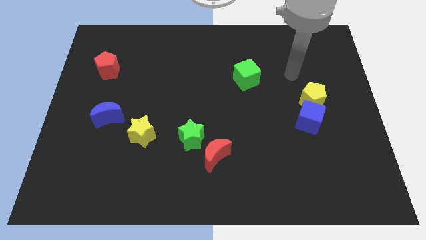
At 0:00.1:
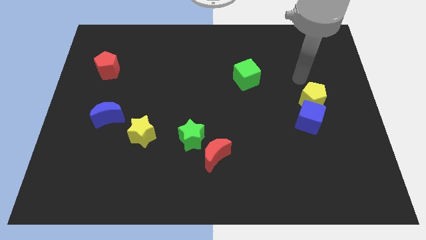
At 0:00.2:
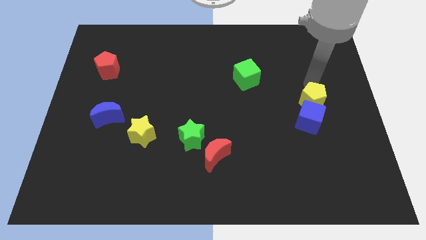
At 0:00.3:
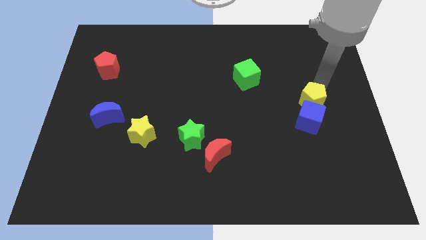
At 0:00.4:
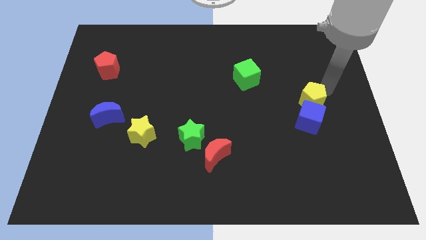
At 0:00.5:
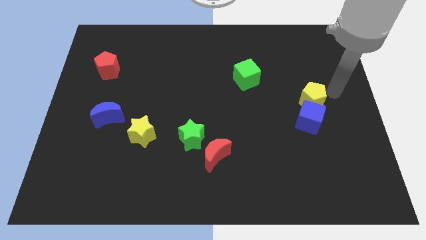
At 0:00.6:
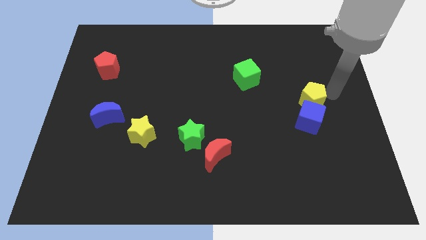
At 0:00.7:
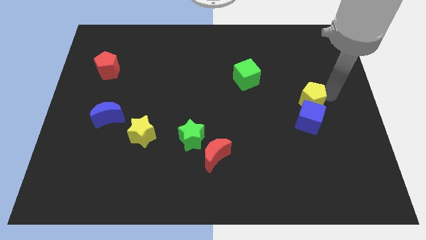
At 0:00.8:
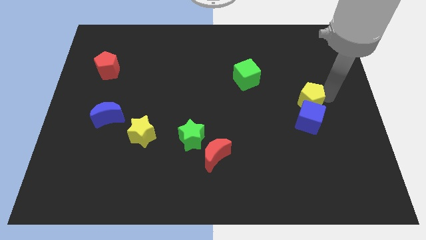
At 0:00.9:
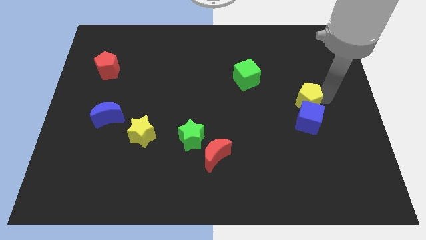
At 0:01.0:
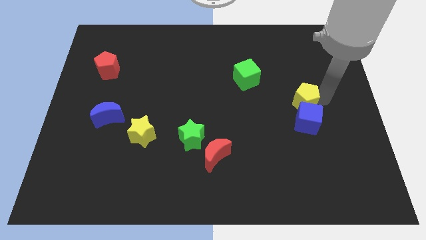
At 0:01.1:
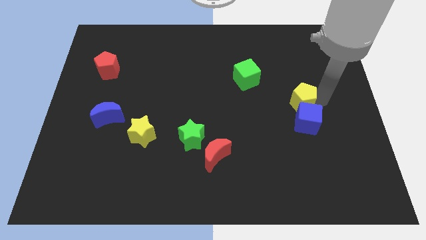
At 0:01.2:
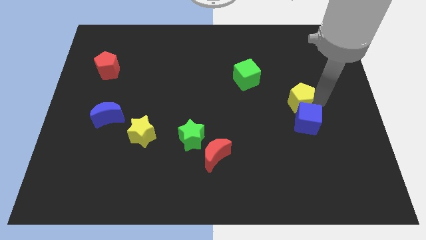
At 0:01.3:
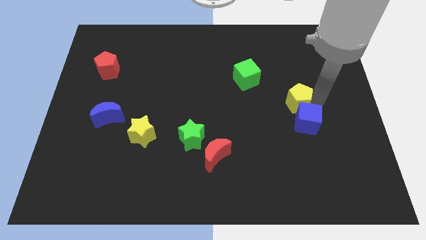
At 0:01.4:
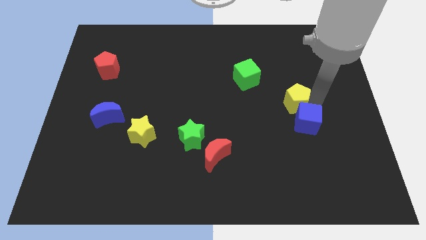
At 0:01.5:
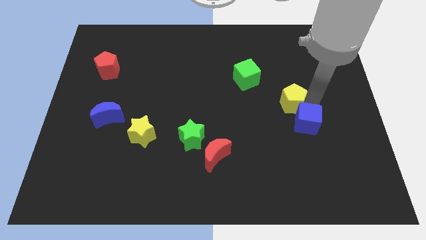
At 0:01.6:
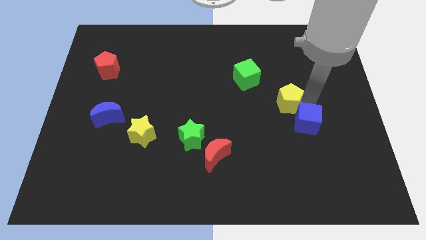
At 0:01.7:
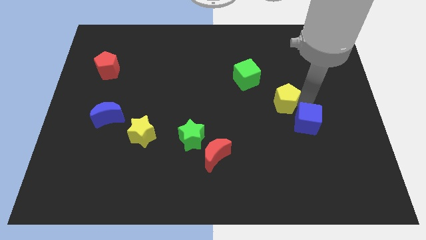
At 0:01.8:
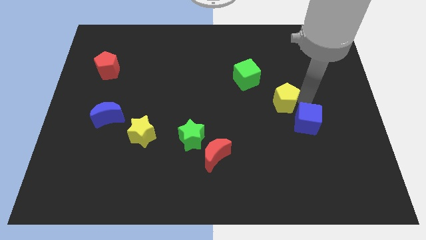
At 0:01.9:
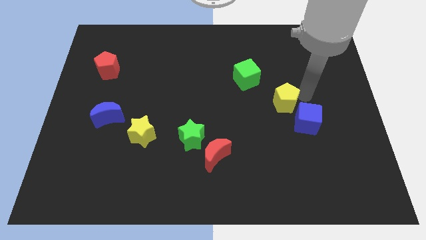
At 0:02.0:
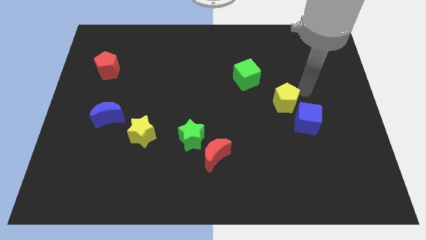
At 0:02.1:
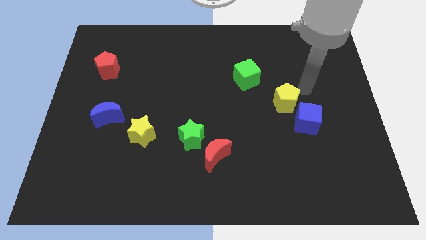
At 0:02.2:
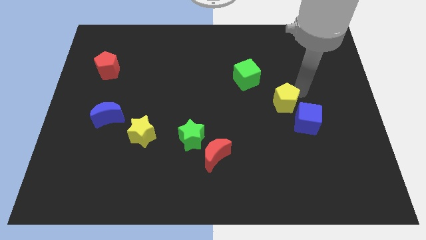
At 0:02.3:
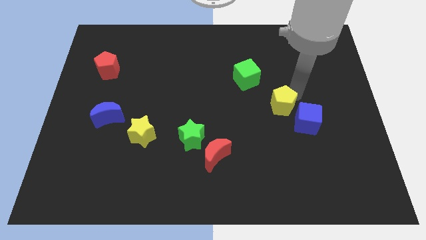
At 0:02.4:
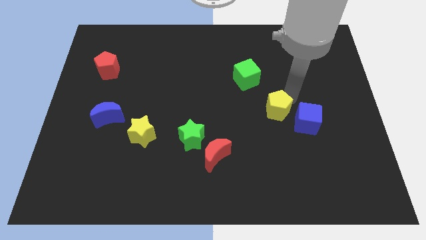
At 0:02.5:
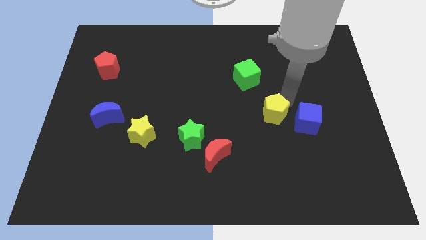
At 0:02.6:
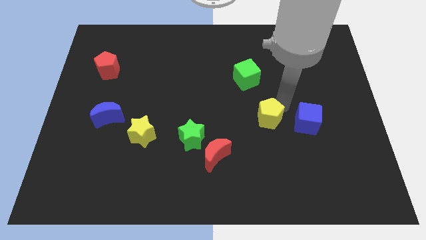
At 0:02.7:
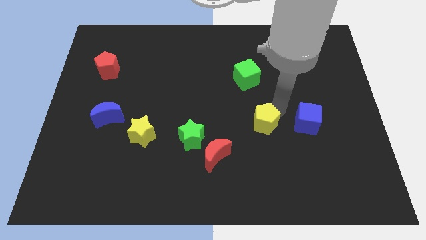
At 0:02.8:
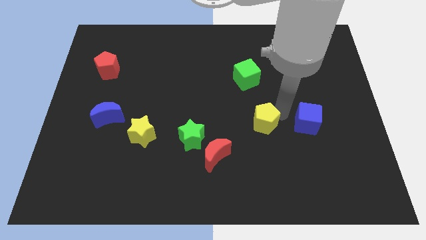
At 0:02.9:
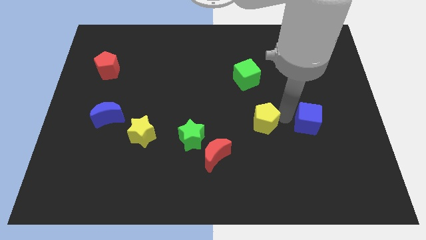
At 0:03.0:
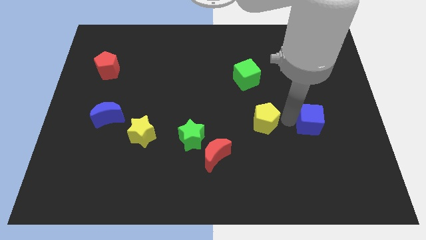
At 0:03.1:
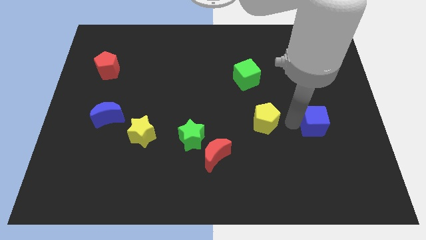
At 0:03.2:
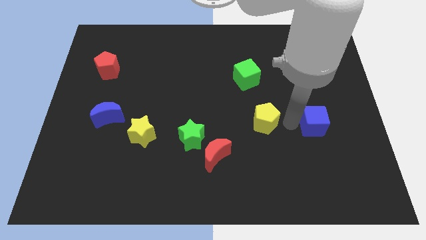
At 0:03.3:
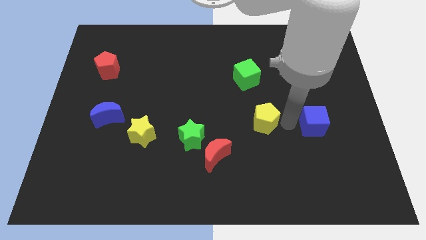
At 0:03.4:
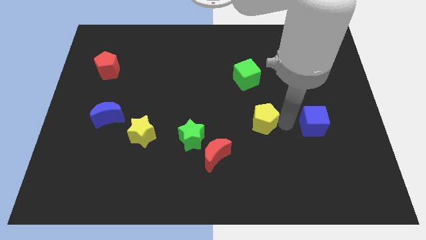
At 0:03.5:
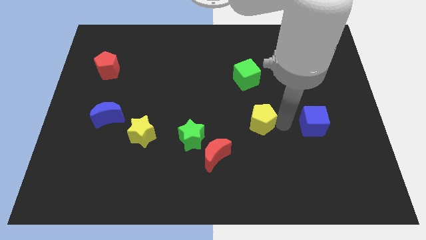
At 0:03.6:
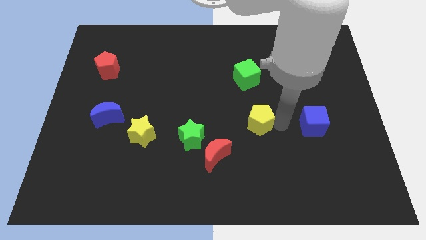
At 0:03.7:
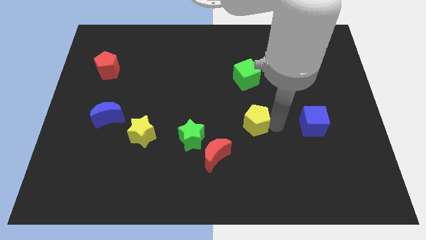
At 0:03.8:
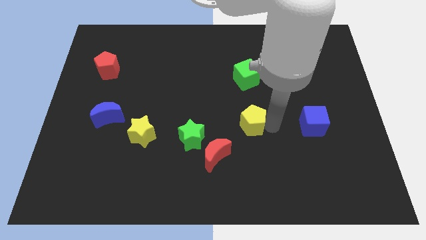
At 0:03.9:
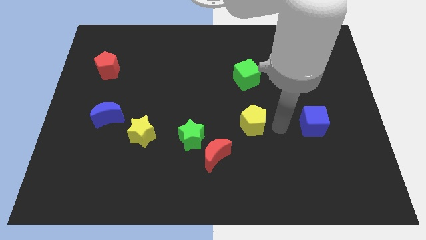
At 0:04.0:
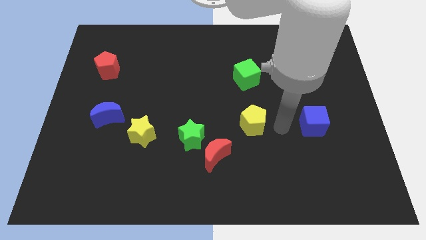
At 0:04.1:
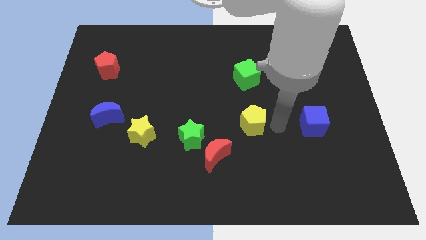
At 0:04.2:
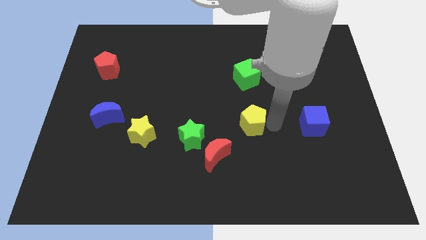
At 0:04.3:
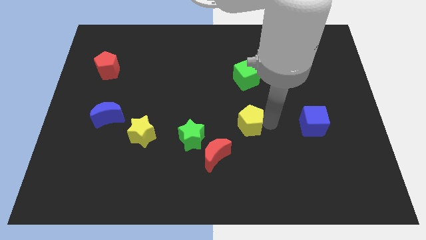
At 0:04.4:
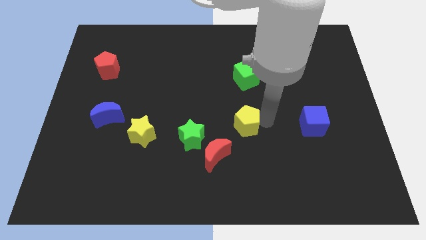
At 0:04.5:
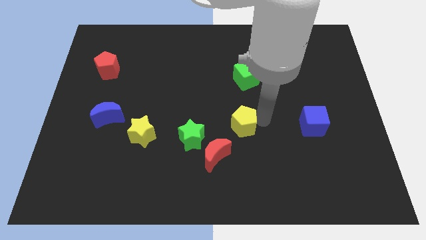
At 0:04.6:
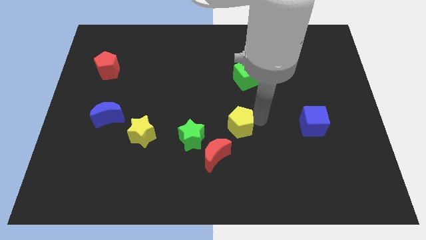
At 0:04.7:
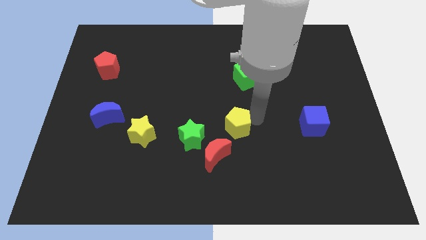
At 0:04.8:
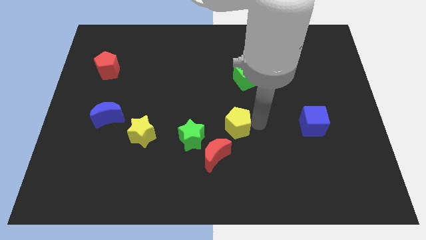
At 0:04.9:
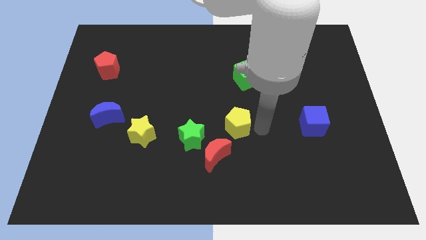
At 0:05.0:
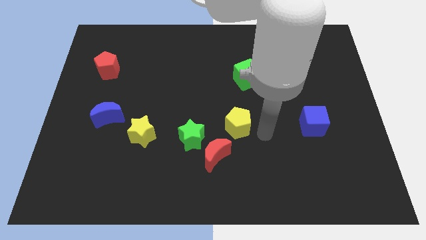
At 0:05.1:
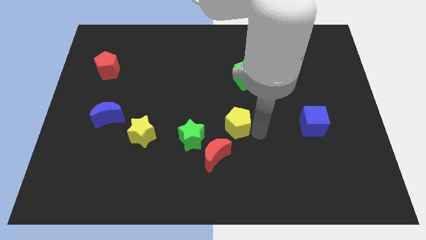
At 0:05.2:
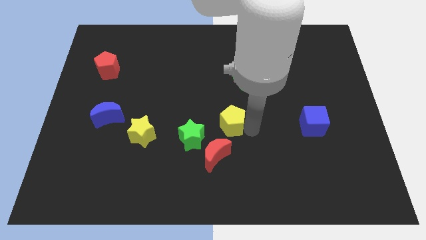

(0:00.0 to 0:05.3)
put the yellow pentagon to the top side of the red moon

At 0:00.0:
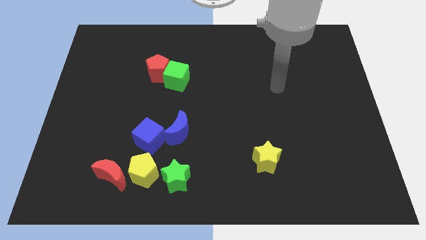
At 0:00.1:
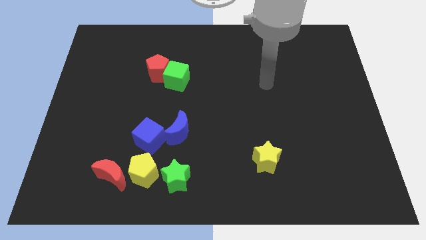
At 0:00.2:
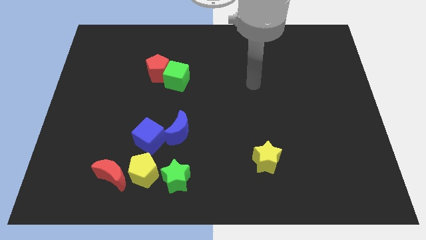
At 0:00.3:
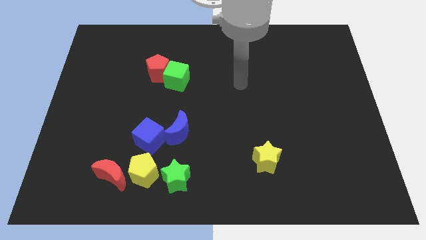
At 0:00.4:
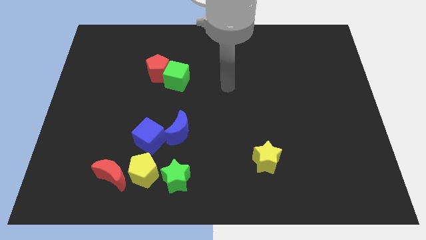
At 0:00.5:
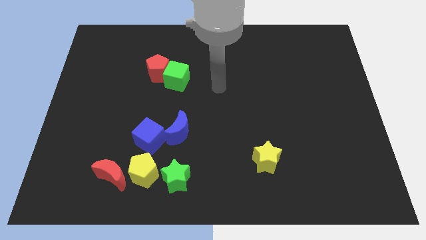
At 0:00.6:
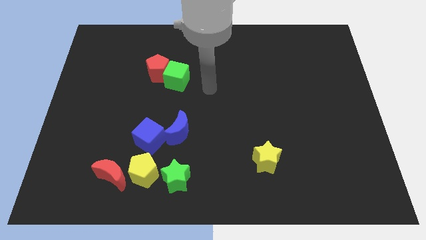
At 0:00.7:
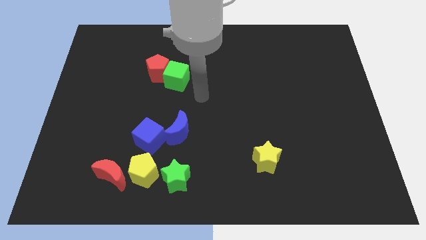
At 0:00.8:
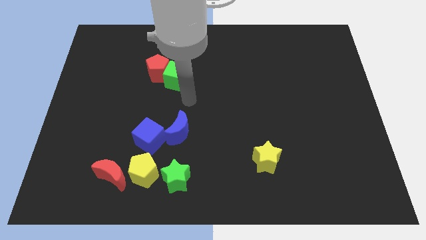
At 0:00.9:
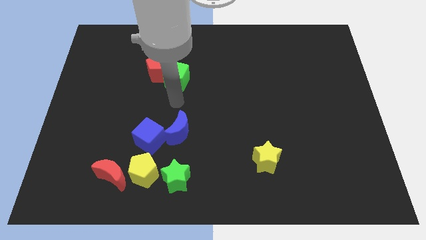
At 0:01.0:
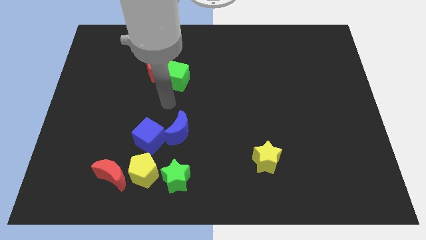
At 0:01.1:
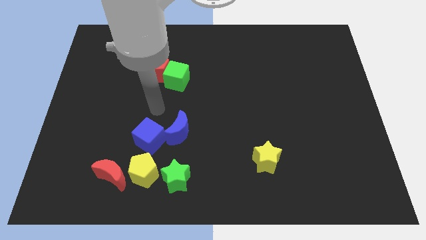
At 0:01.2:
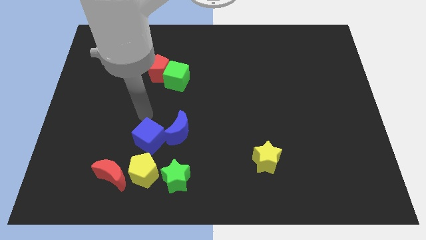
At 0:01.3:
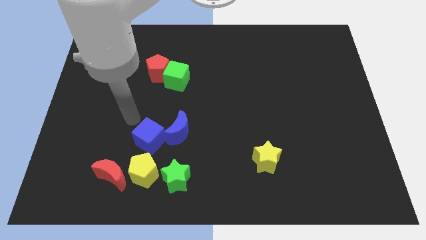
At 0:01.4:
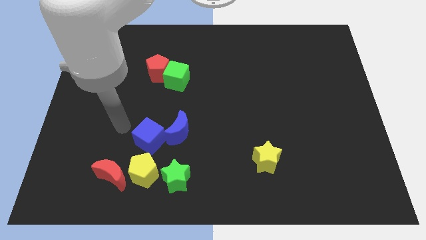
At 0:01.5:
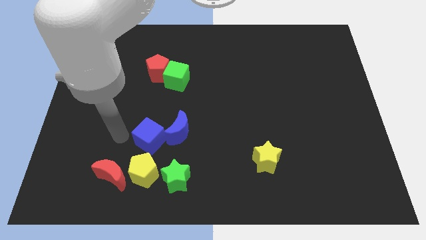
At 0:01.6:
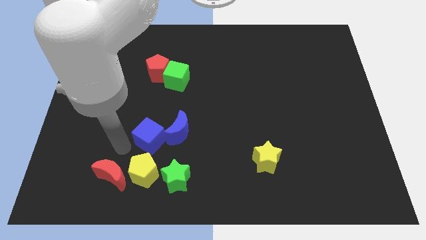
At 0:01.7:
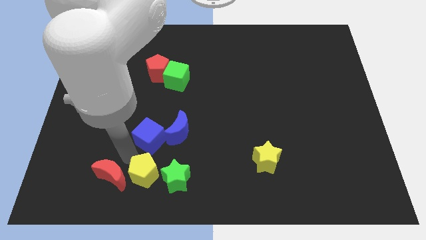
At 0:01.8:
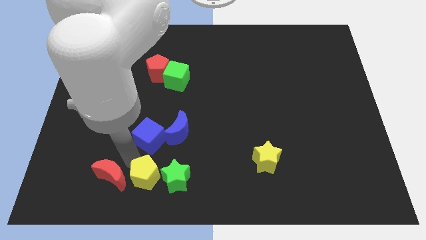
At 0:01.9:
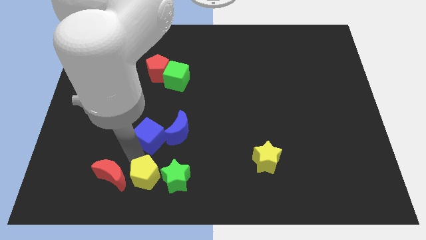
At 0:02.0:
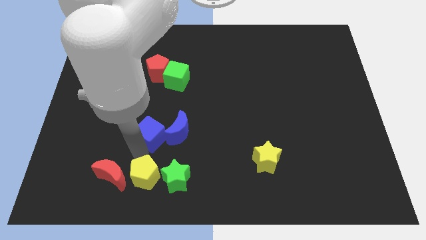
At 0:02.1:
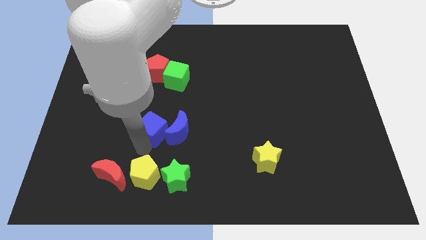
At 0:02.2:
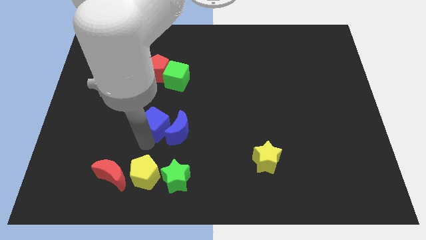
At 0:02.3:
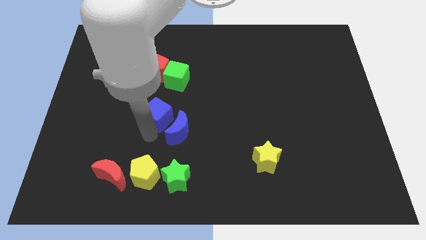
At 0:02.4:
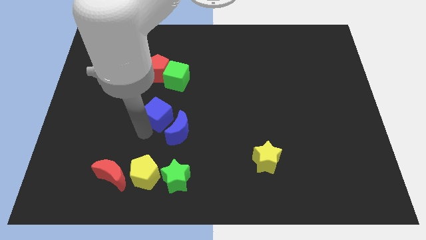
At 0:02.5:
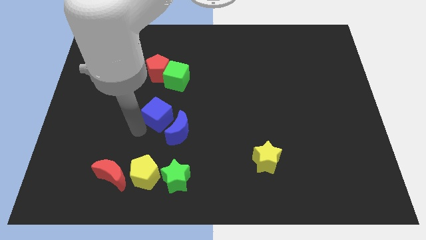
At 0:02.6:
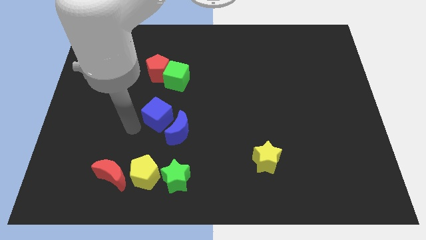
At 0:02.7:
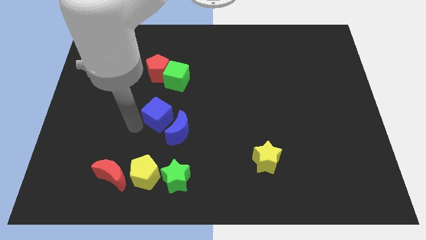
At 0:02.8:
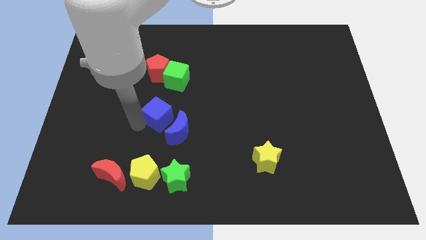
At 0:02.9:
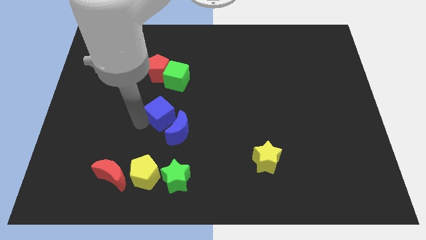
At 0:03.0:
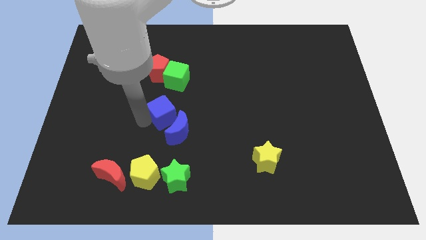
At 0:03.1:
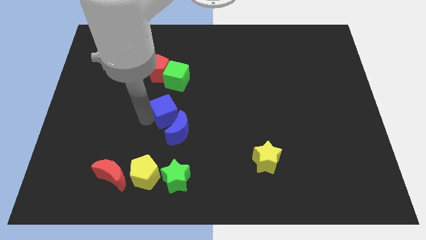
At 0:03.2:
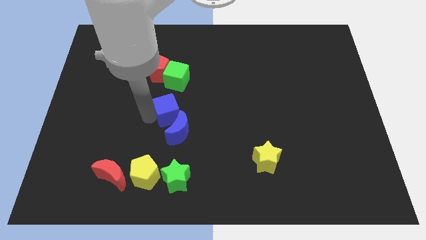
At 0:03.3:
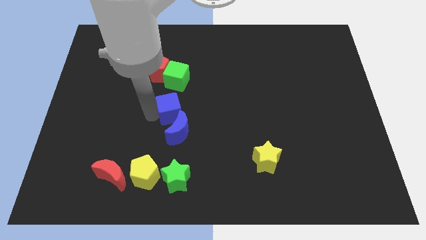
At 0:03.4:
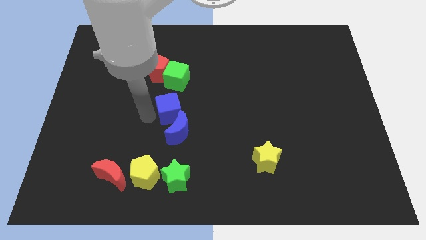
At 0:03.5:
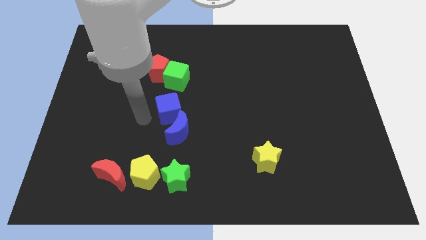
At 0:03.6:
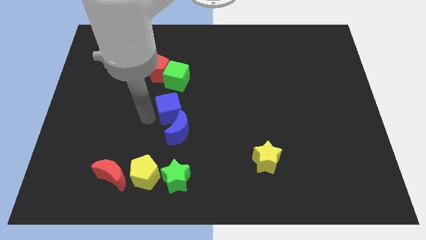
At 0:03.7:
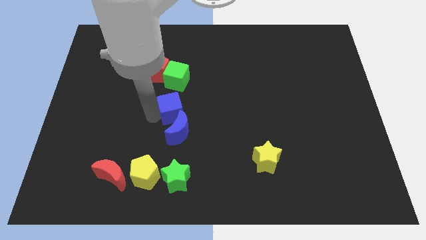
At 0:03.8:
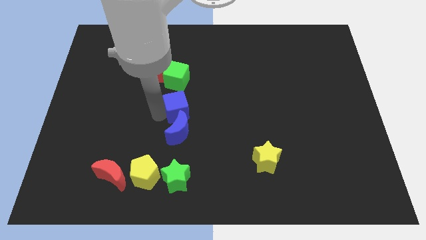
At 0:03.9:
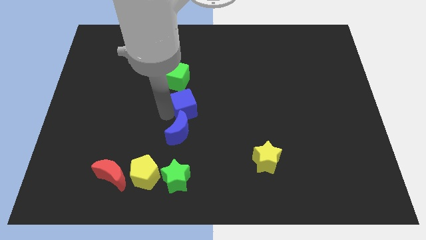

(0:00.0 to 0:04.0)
put the blue cube to the bottom right side of the green cube
